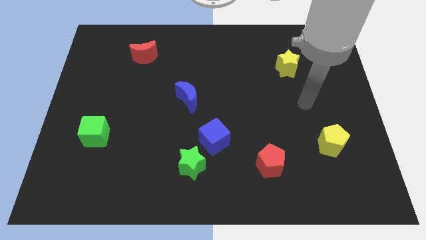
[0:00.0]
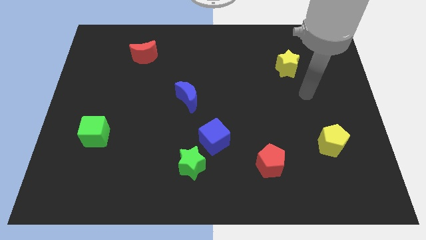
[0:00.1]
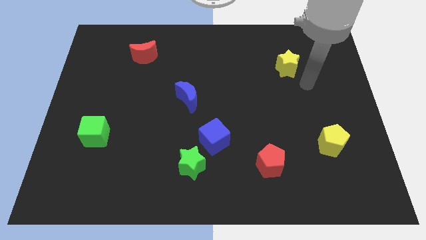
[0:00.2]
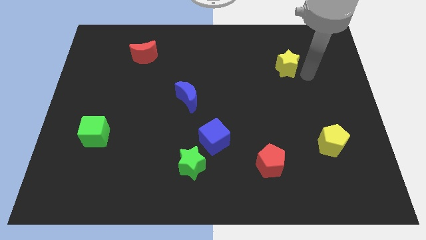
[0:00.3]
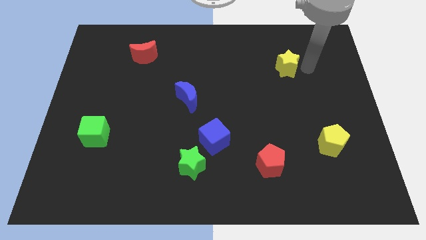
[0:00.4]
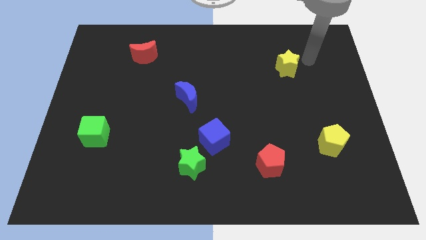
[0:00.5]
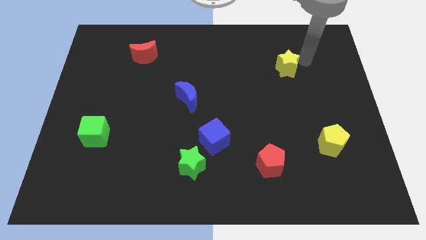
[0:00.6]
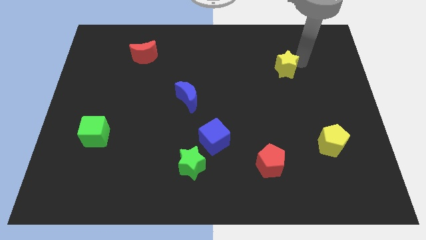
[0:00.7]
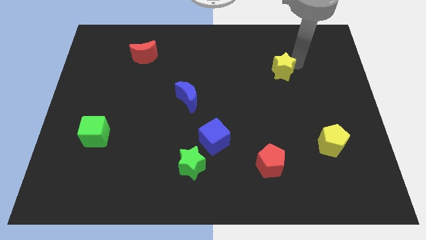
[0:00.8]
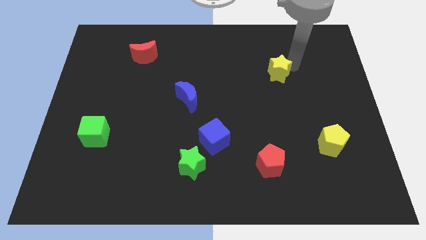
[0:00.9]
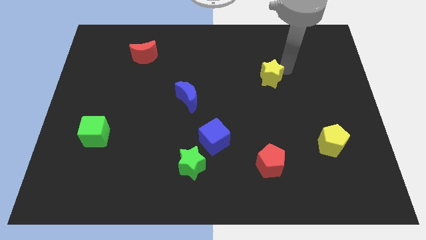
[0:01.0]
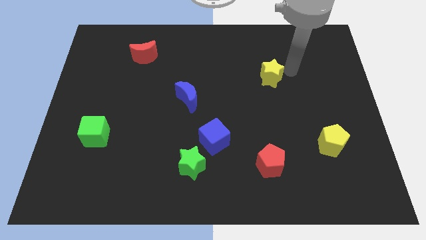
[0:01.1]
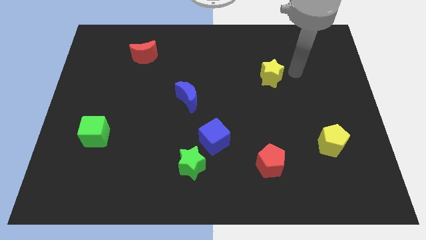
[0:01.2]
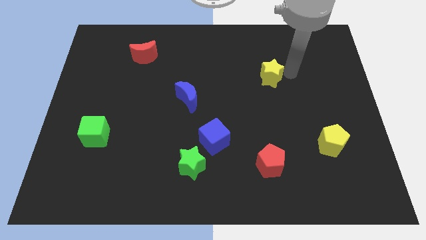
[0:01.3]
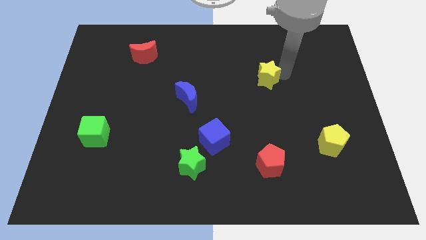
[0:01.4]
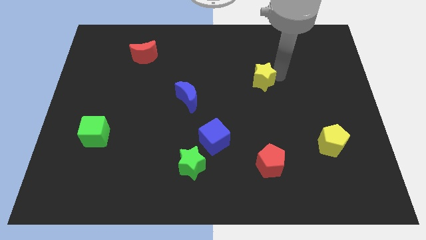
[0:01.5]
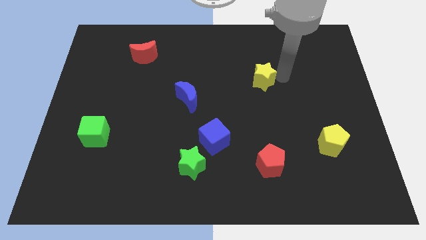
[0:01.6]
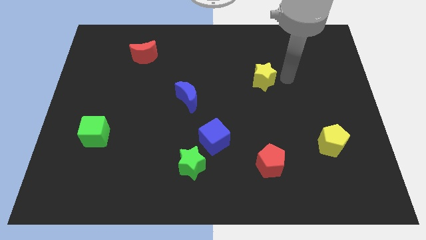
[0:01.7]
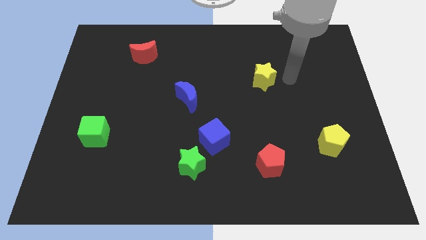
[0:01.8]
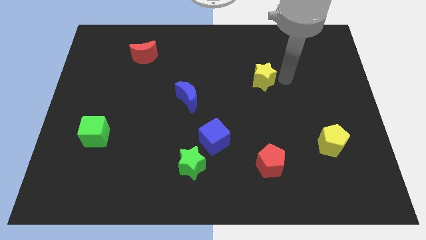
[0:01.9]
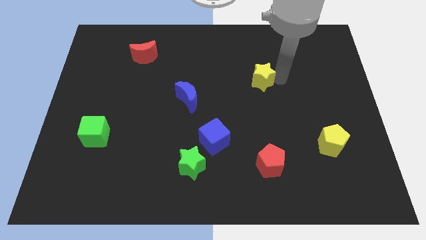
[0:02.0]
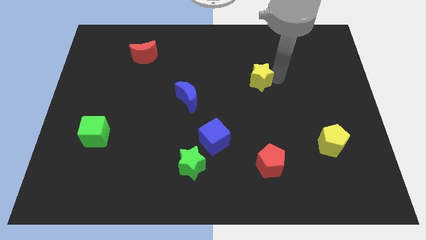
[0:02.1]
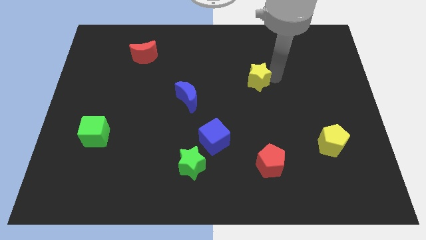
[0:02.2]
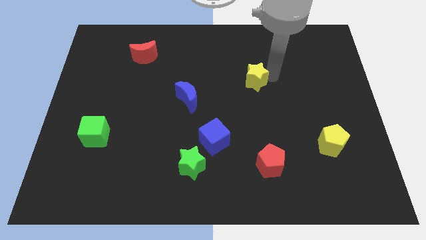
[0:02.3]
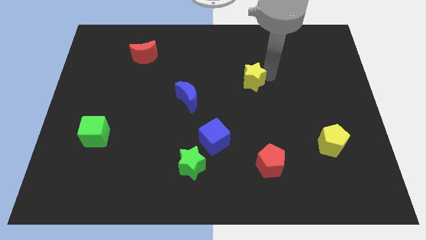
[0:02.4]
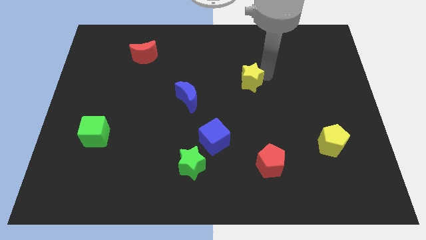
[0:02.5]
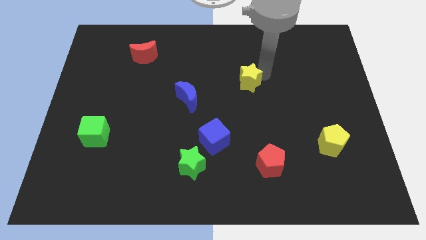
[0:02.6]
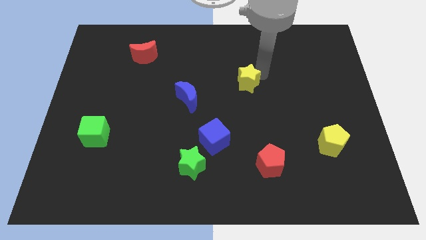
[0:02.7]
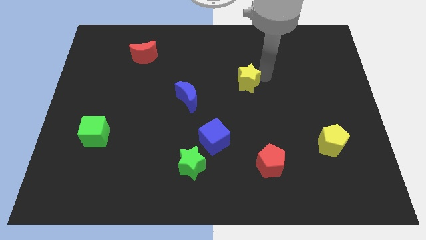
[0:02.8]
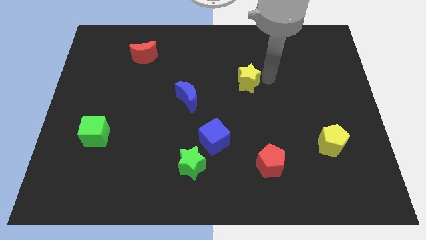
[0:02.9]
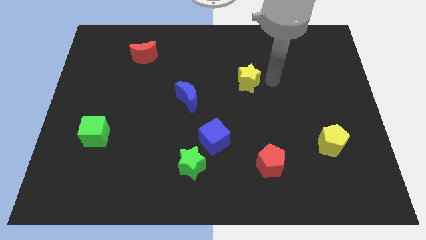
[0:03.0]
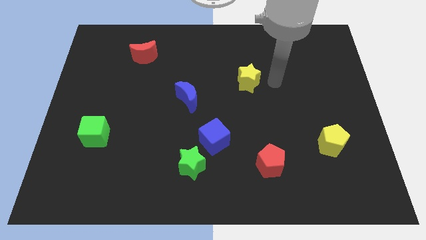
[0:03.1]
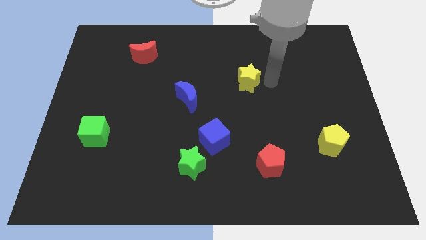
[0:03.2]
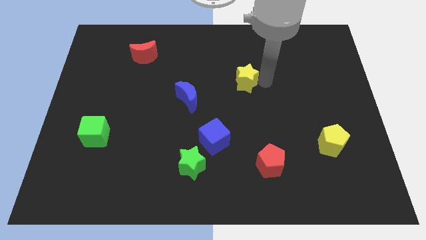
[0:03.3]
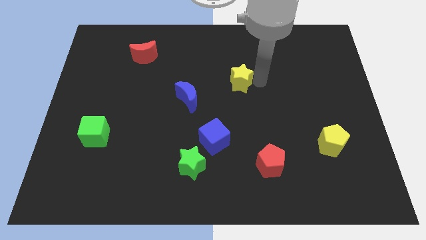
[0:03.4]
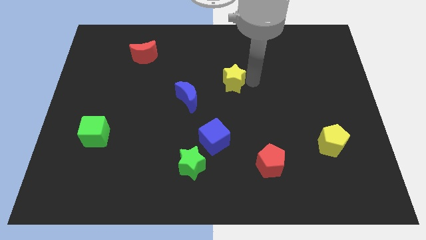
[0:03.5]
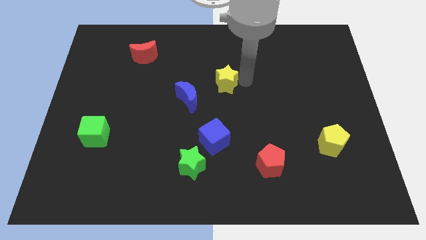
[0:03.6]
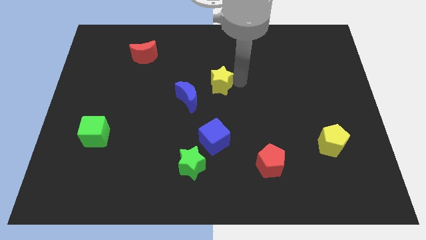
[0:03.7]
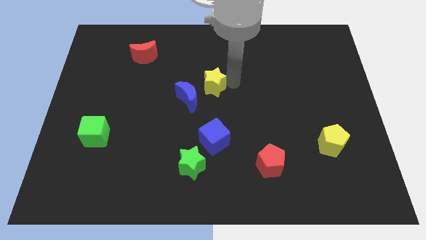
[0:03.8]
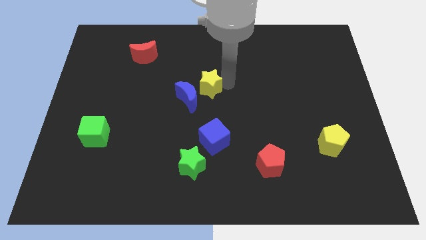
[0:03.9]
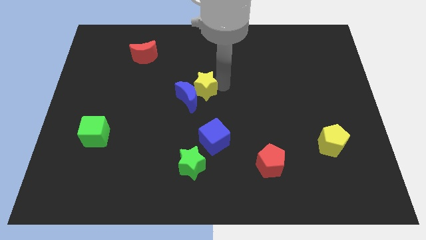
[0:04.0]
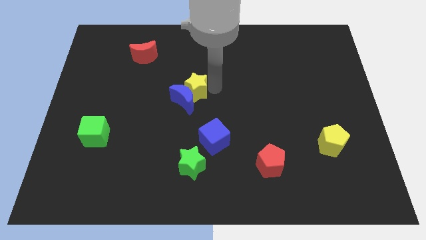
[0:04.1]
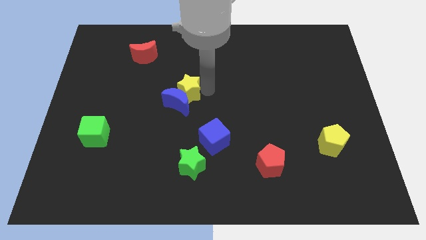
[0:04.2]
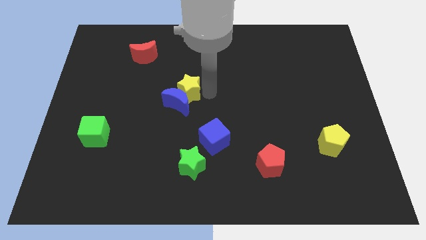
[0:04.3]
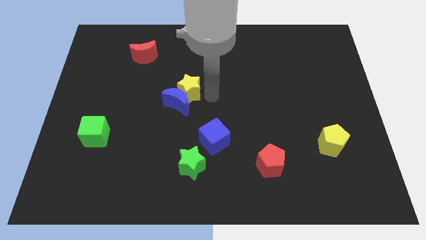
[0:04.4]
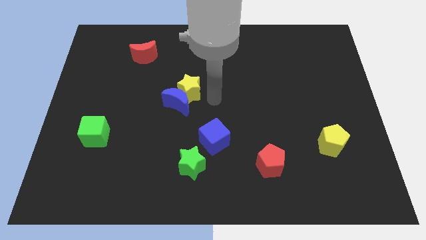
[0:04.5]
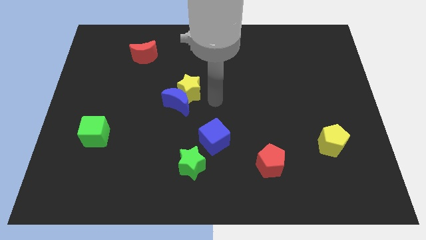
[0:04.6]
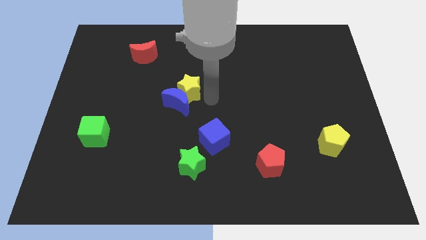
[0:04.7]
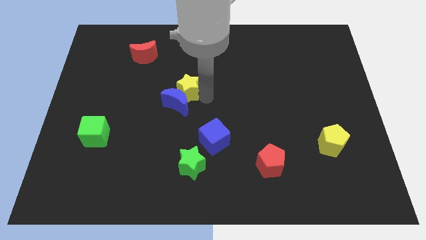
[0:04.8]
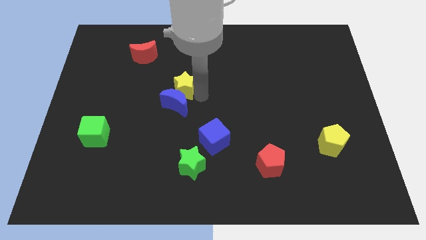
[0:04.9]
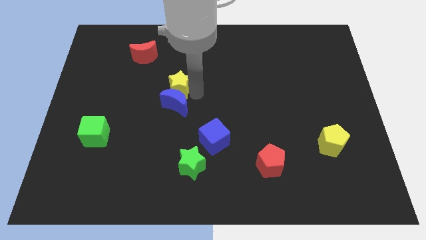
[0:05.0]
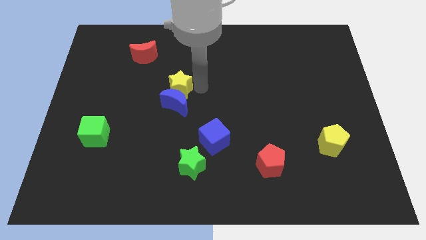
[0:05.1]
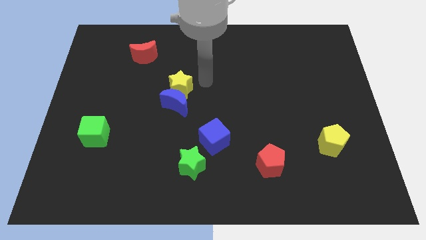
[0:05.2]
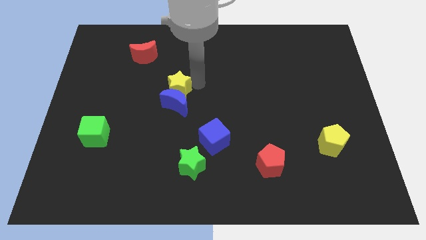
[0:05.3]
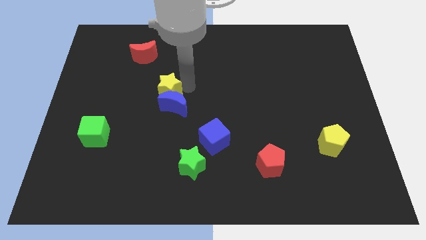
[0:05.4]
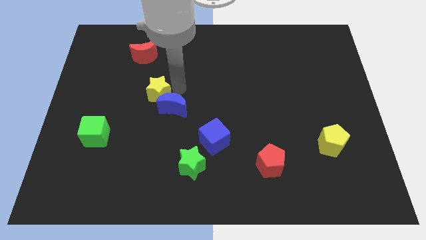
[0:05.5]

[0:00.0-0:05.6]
put the yellow star just left of the blue moon

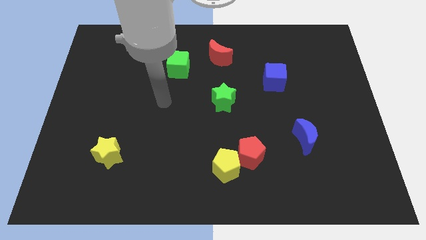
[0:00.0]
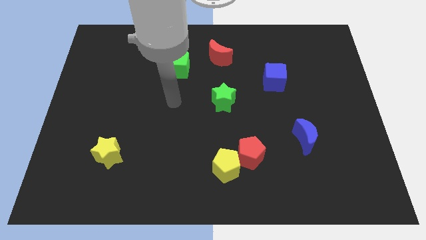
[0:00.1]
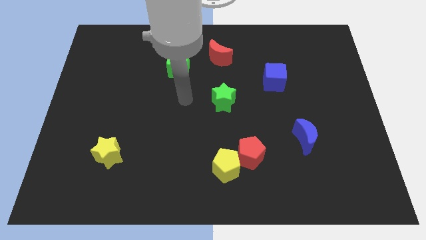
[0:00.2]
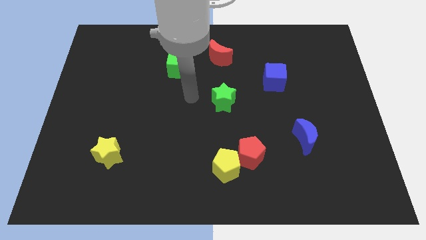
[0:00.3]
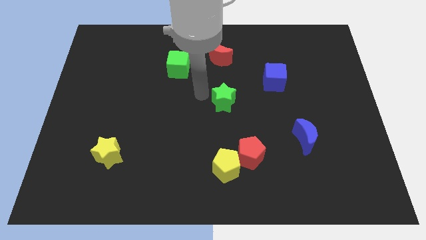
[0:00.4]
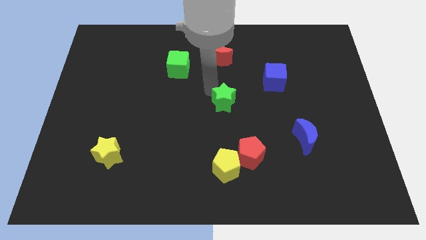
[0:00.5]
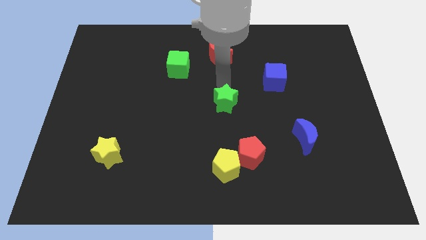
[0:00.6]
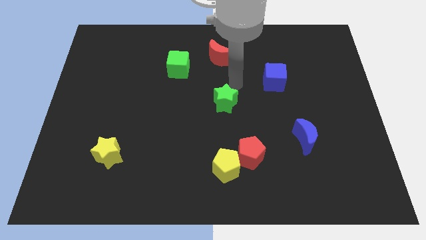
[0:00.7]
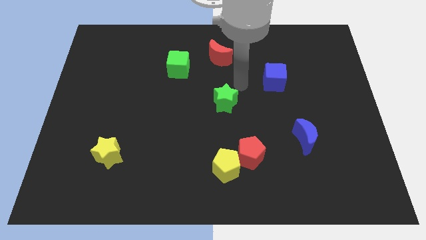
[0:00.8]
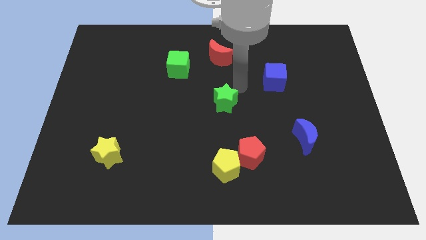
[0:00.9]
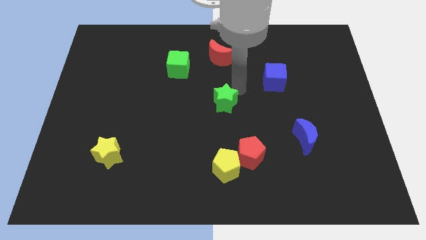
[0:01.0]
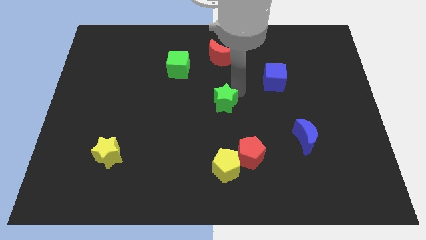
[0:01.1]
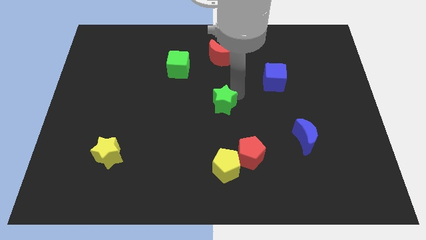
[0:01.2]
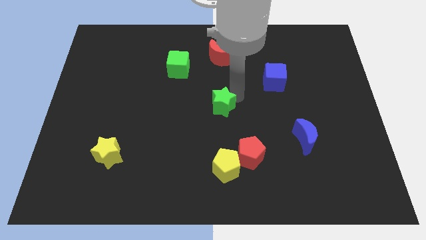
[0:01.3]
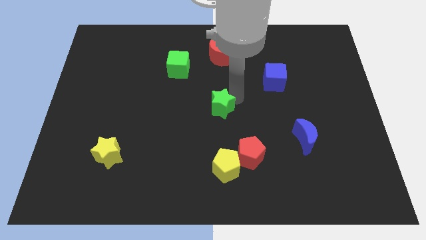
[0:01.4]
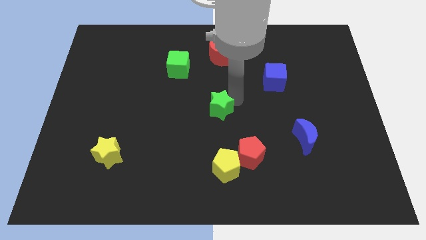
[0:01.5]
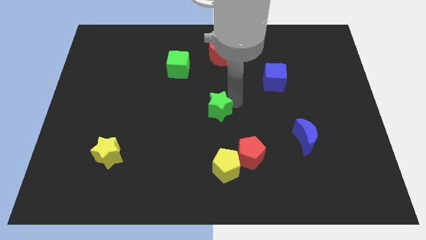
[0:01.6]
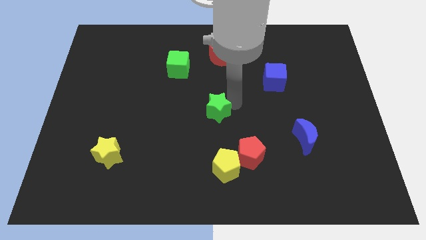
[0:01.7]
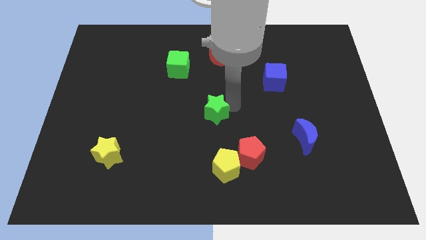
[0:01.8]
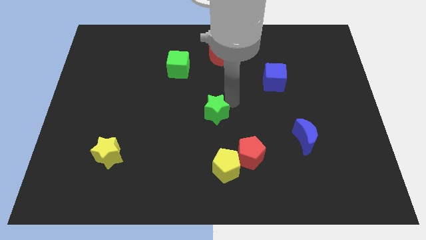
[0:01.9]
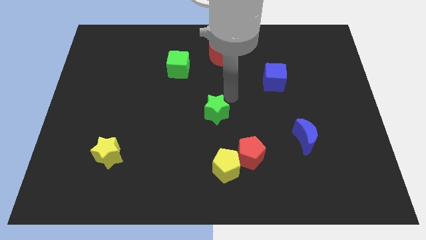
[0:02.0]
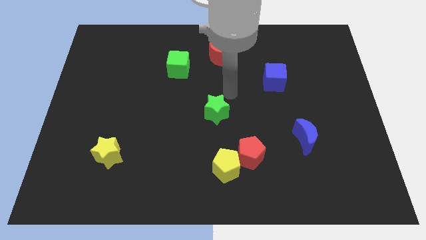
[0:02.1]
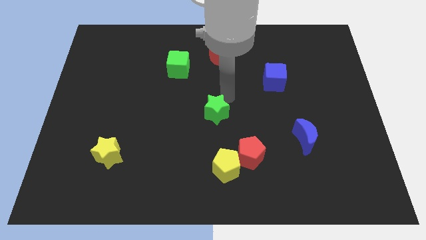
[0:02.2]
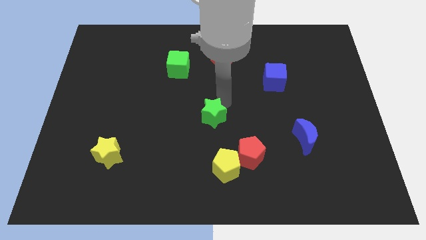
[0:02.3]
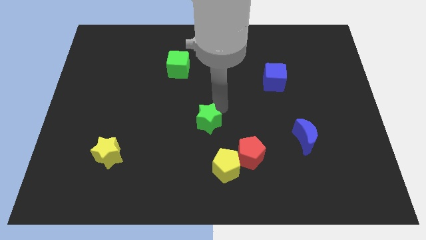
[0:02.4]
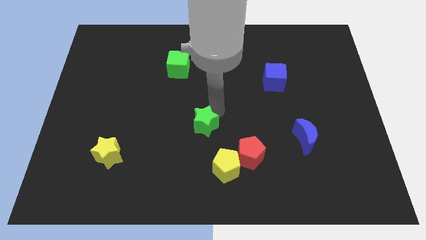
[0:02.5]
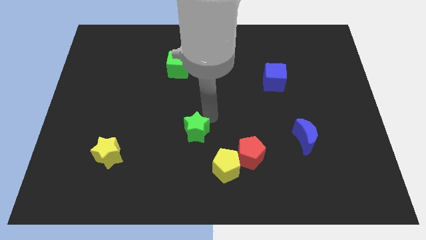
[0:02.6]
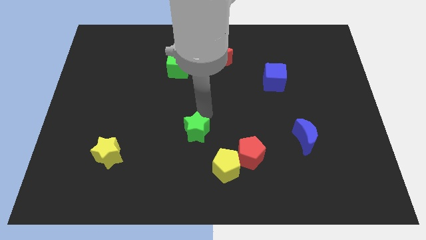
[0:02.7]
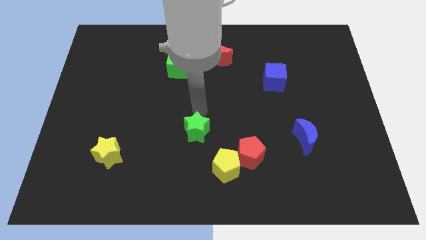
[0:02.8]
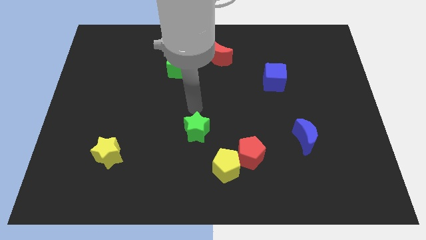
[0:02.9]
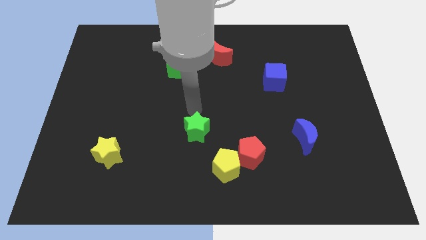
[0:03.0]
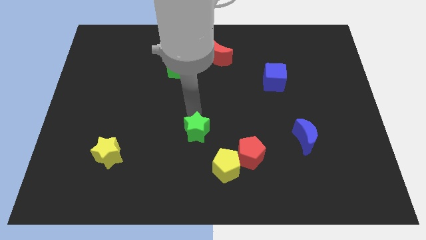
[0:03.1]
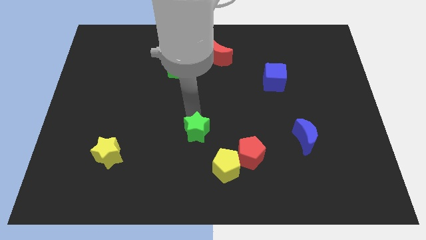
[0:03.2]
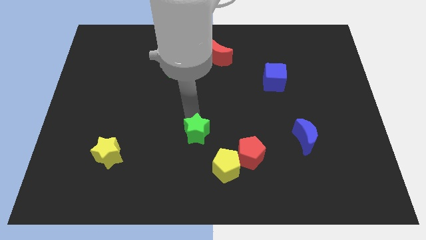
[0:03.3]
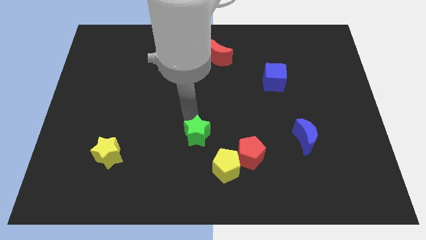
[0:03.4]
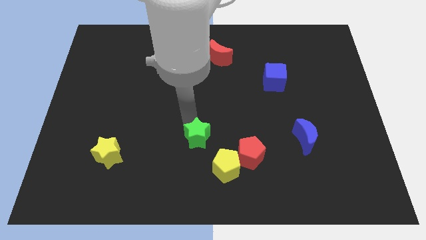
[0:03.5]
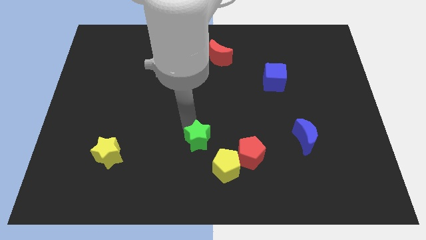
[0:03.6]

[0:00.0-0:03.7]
push the green star to the left of the red pentagon
